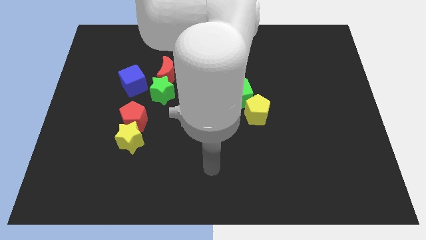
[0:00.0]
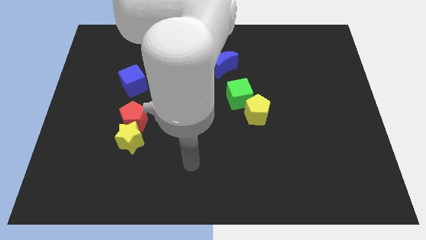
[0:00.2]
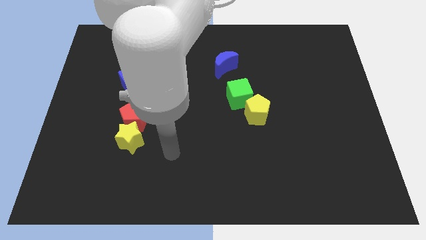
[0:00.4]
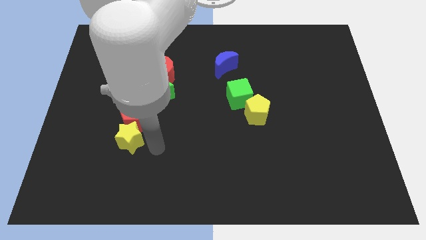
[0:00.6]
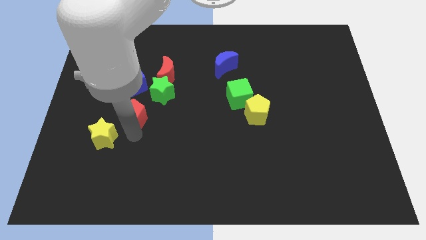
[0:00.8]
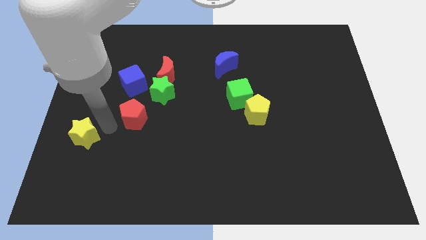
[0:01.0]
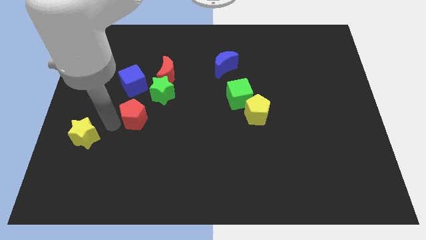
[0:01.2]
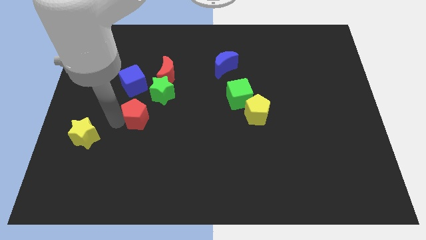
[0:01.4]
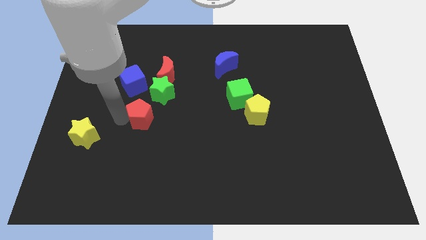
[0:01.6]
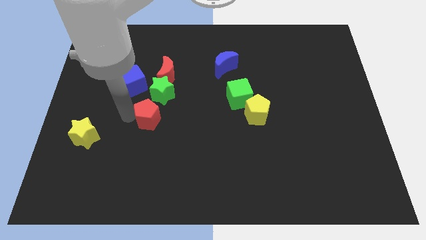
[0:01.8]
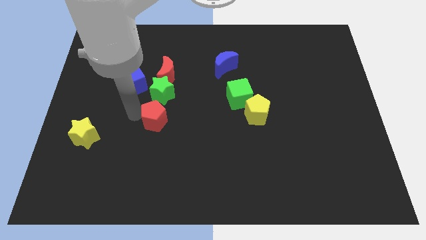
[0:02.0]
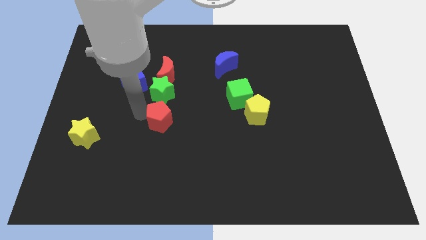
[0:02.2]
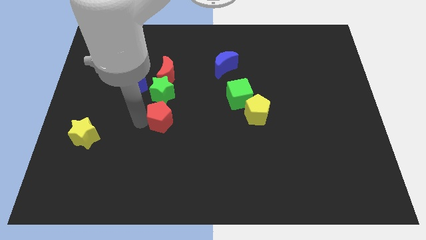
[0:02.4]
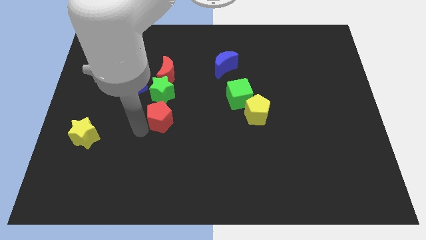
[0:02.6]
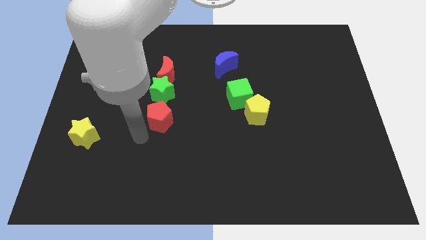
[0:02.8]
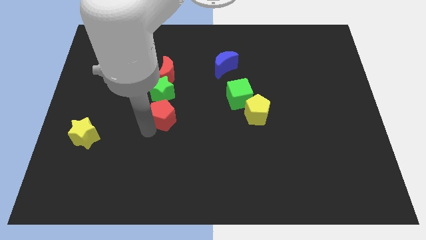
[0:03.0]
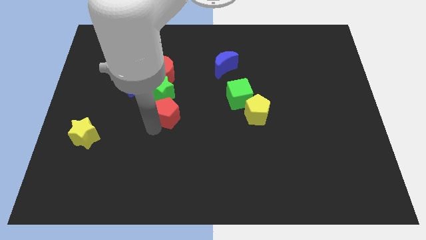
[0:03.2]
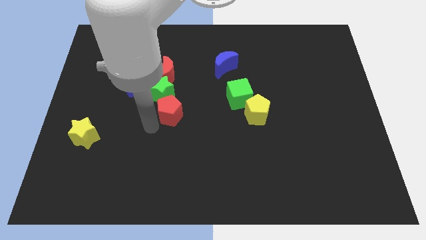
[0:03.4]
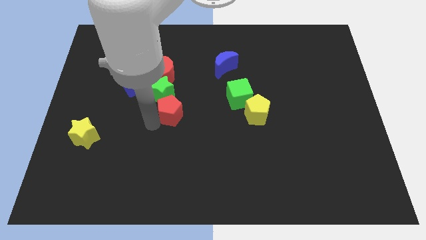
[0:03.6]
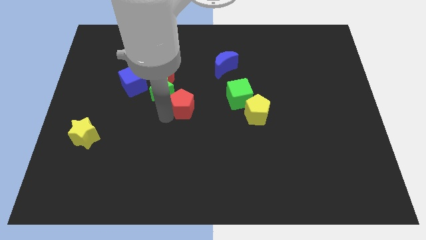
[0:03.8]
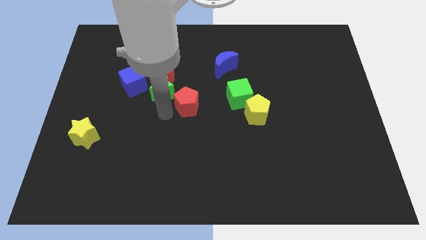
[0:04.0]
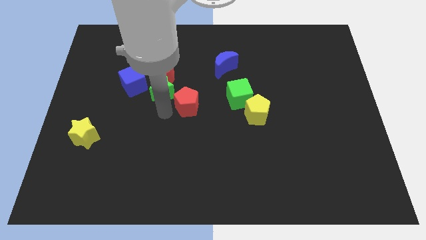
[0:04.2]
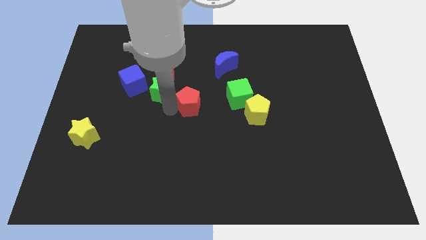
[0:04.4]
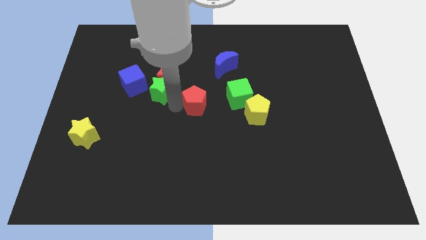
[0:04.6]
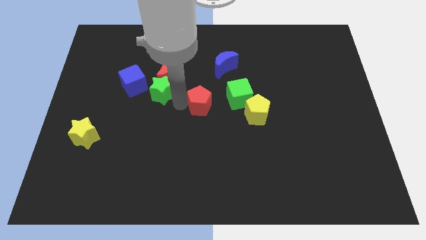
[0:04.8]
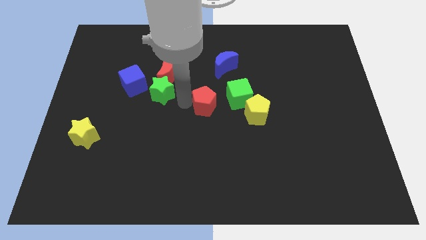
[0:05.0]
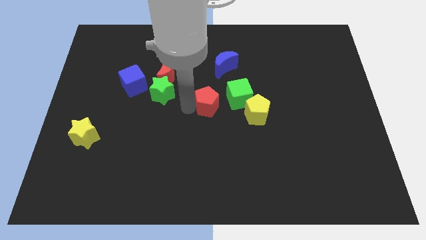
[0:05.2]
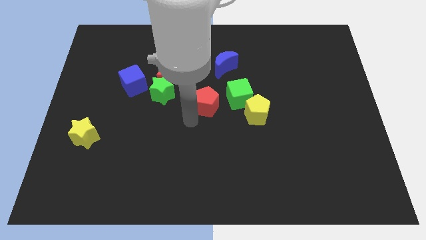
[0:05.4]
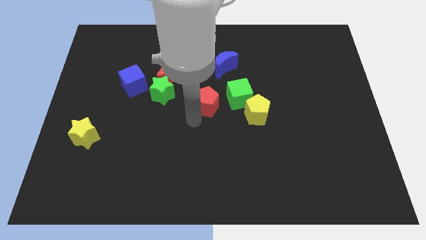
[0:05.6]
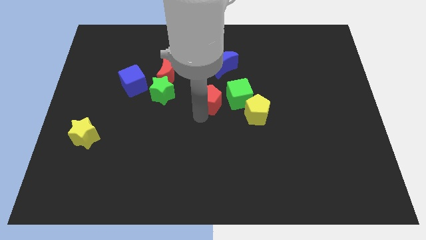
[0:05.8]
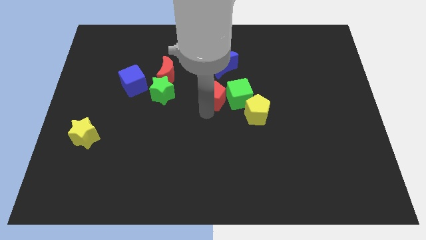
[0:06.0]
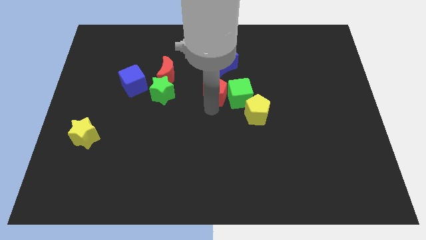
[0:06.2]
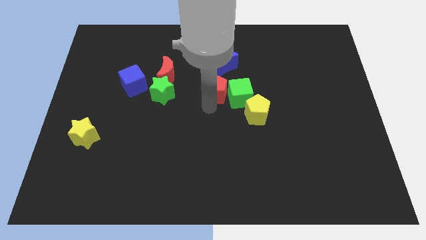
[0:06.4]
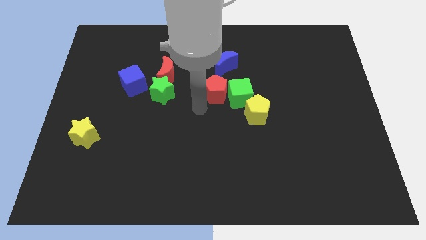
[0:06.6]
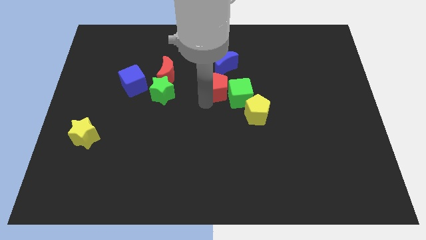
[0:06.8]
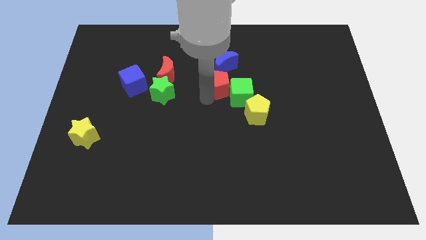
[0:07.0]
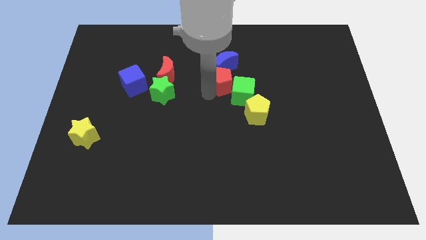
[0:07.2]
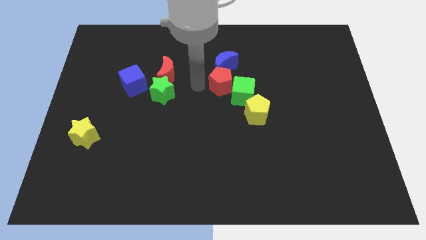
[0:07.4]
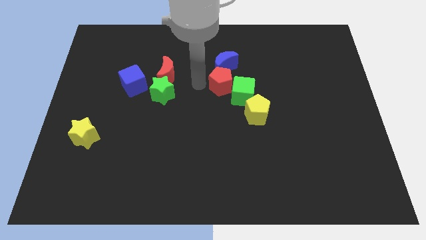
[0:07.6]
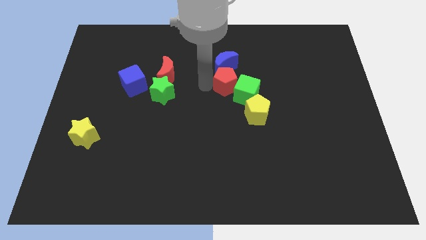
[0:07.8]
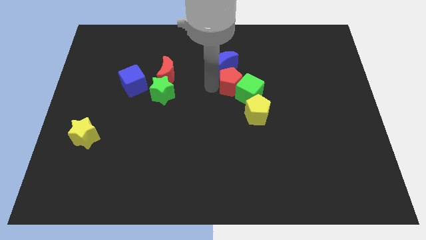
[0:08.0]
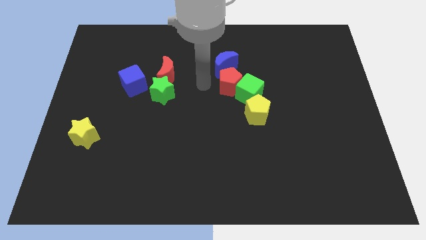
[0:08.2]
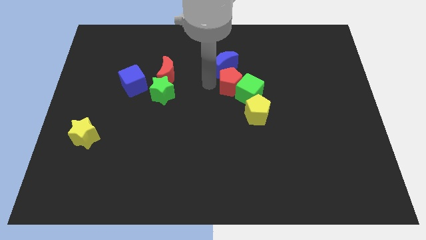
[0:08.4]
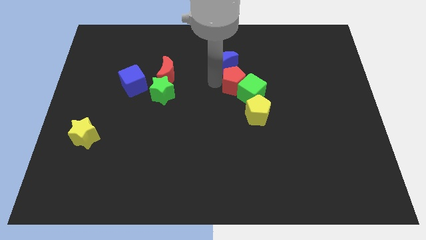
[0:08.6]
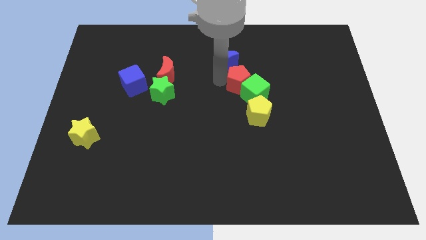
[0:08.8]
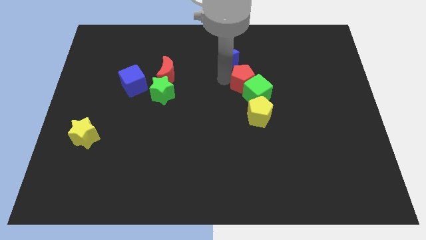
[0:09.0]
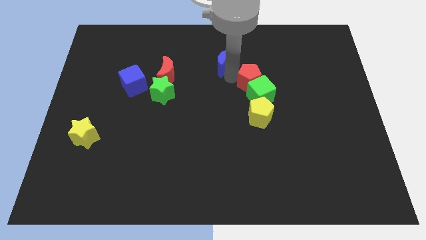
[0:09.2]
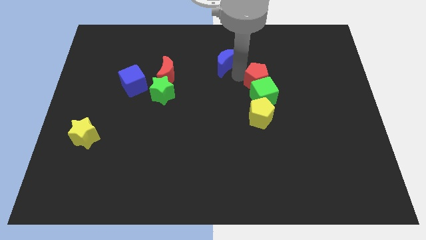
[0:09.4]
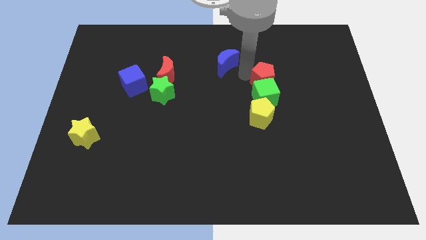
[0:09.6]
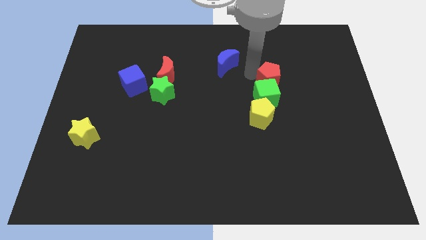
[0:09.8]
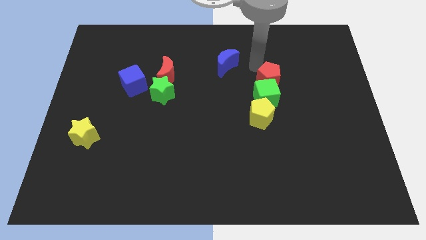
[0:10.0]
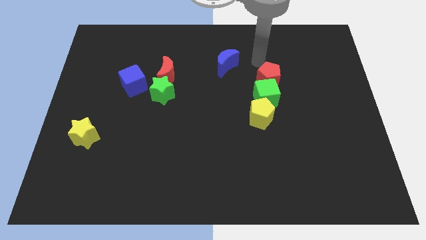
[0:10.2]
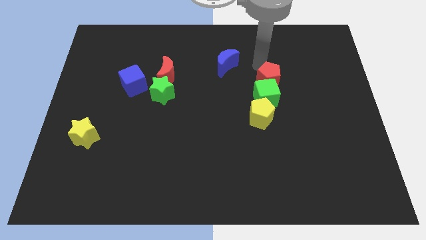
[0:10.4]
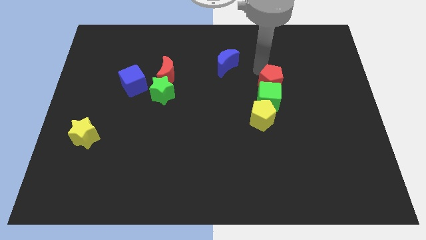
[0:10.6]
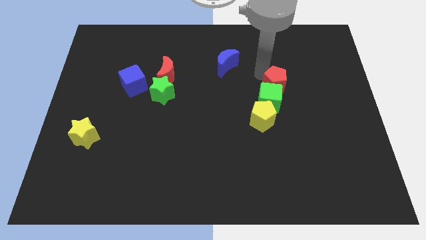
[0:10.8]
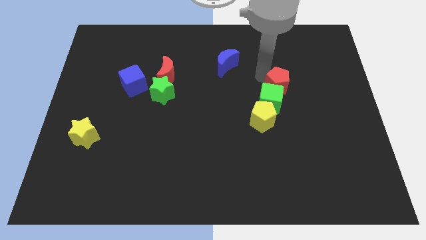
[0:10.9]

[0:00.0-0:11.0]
move the red pentagon to the top right side of the yellow pentagon

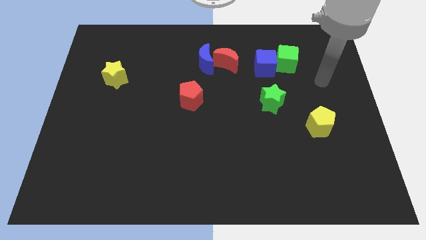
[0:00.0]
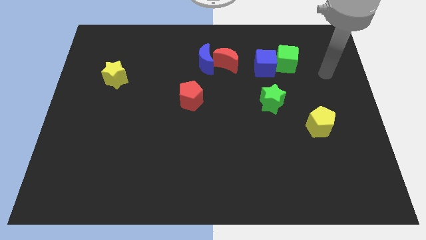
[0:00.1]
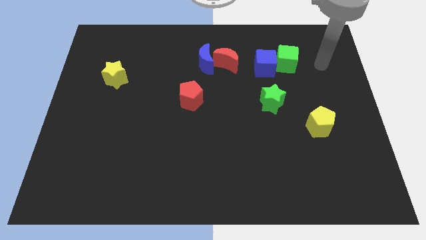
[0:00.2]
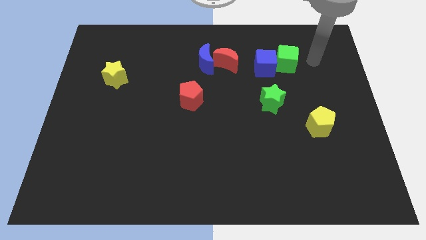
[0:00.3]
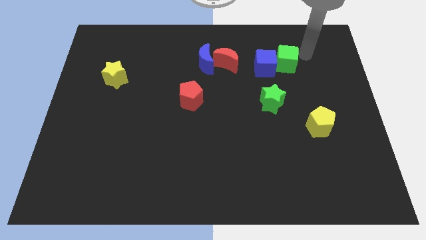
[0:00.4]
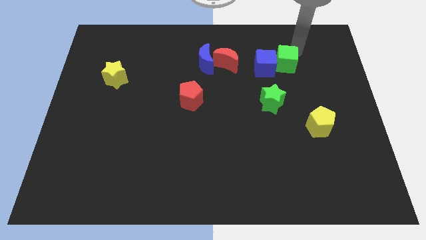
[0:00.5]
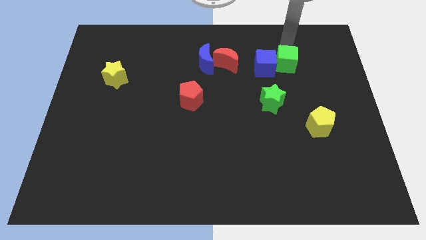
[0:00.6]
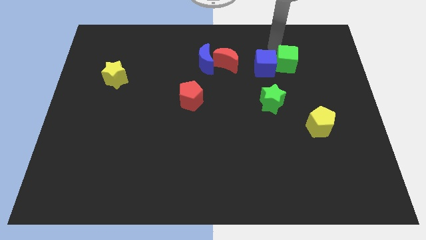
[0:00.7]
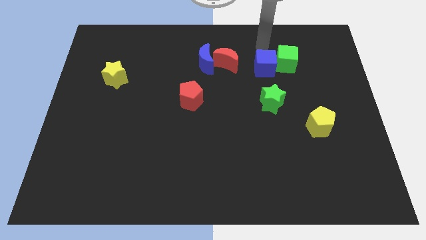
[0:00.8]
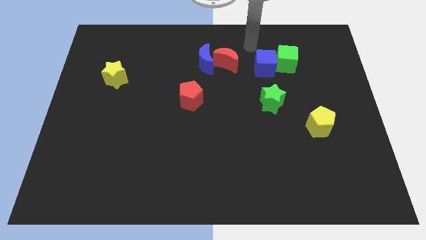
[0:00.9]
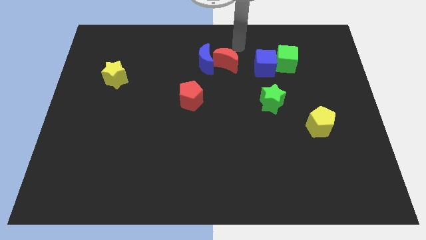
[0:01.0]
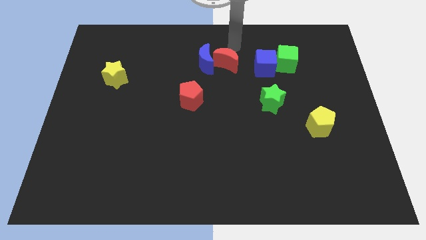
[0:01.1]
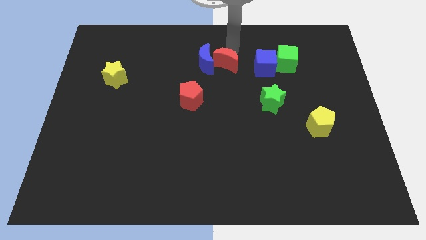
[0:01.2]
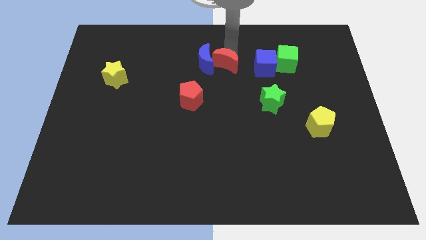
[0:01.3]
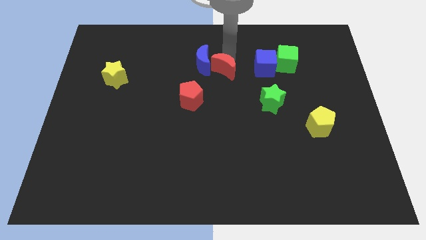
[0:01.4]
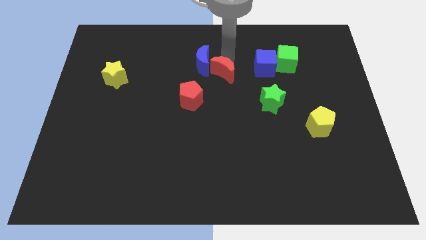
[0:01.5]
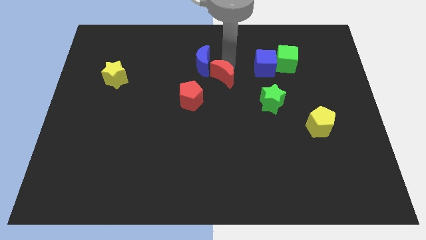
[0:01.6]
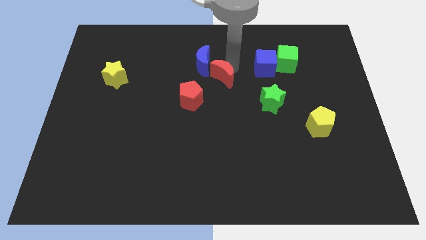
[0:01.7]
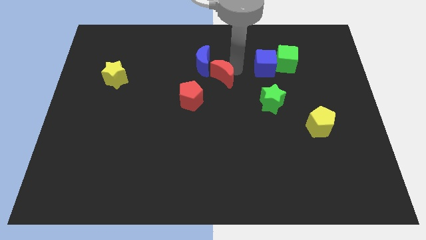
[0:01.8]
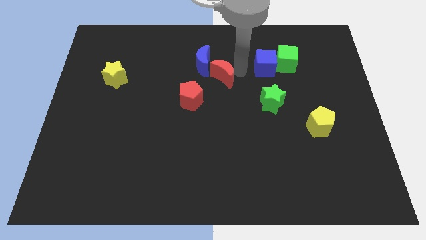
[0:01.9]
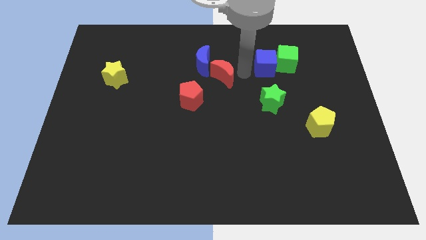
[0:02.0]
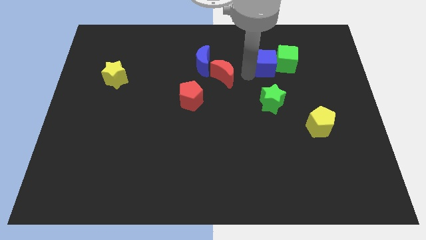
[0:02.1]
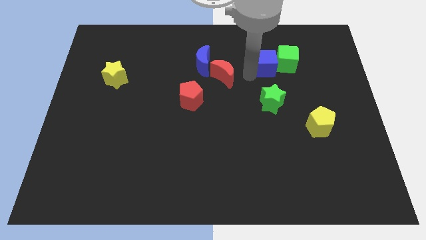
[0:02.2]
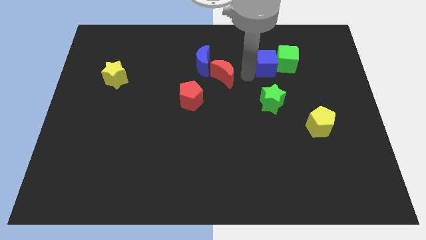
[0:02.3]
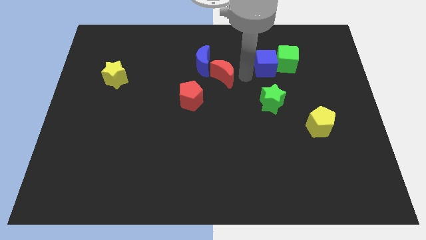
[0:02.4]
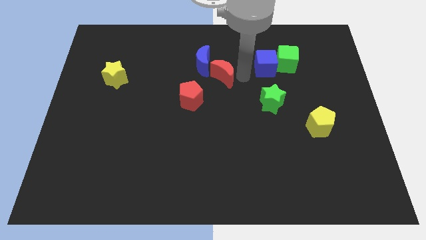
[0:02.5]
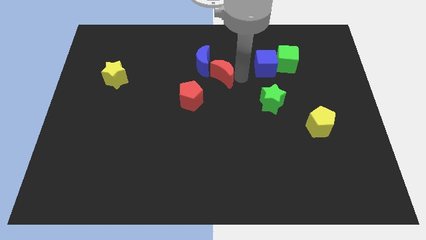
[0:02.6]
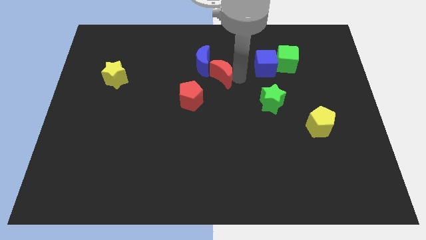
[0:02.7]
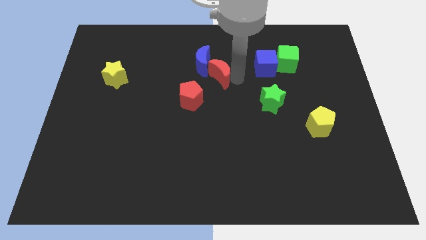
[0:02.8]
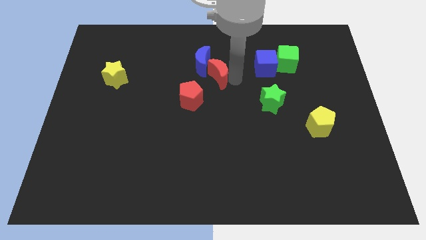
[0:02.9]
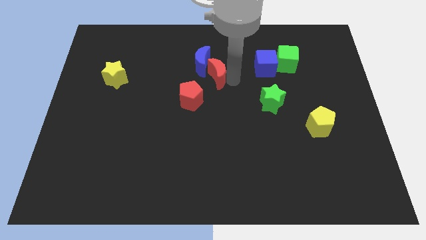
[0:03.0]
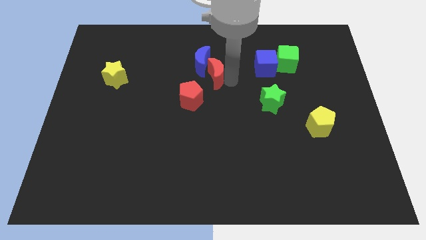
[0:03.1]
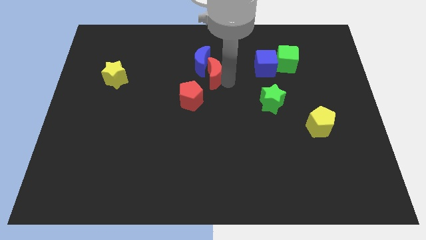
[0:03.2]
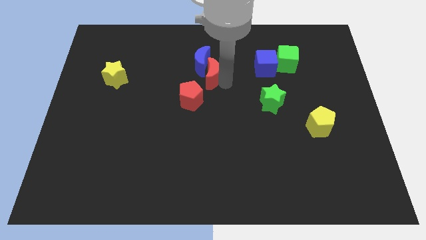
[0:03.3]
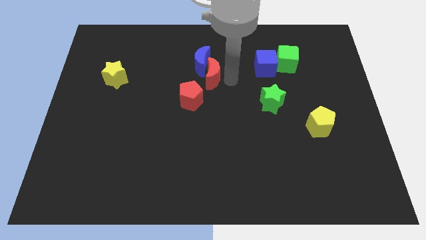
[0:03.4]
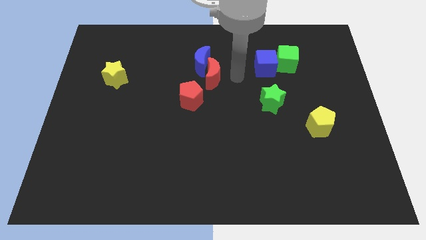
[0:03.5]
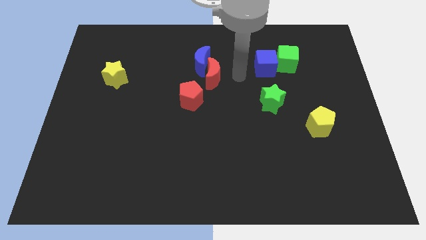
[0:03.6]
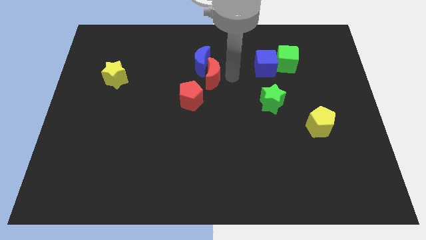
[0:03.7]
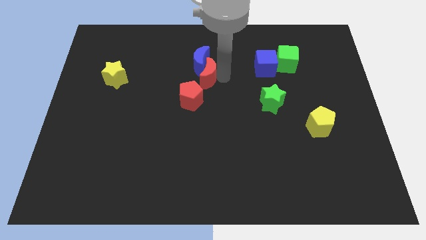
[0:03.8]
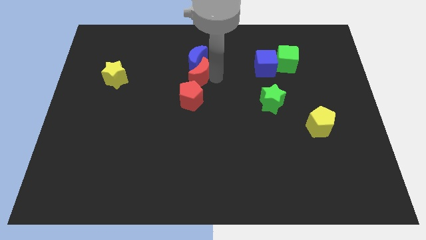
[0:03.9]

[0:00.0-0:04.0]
slide the red moon to the bottom left side of the blue moon
